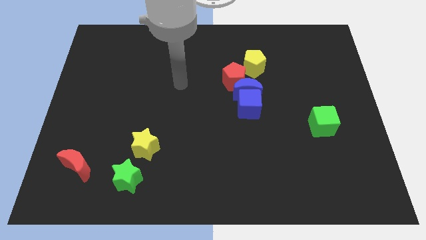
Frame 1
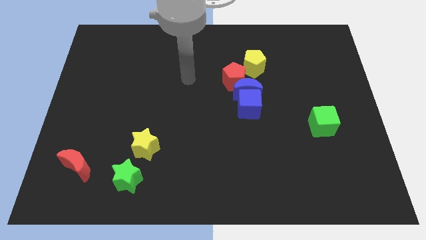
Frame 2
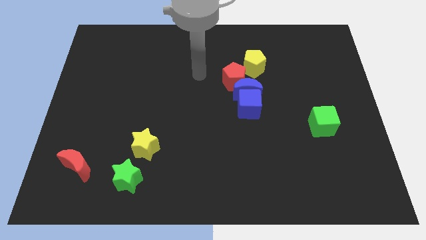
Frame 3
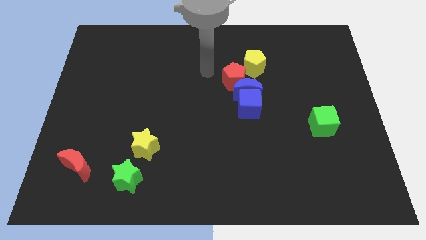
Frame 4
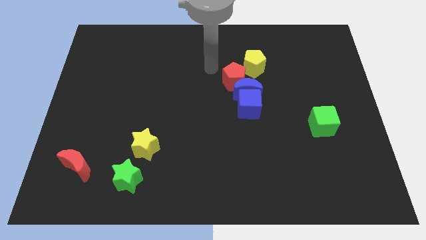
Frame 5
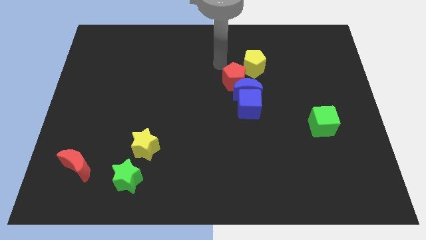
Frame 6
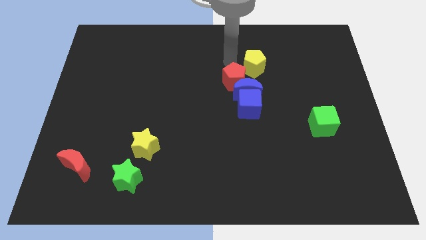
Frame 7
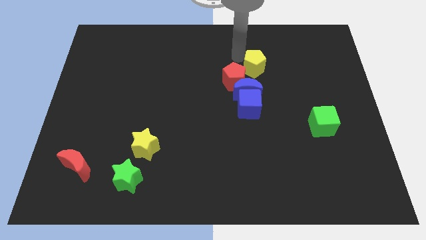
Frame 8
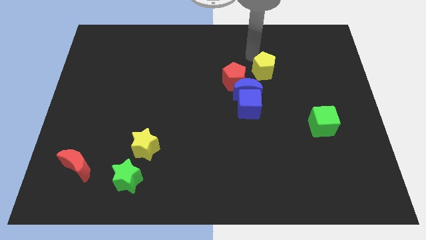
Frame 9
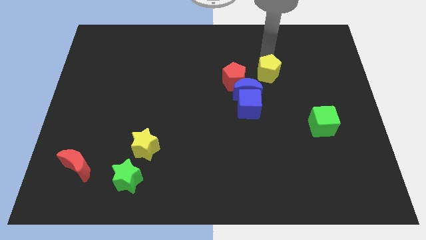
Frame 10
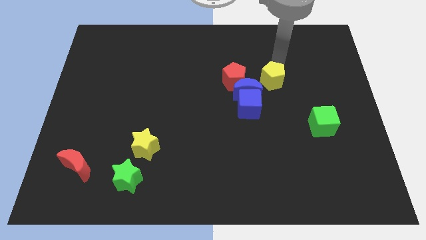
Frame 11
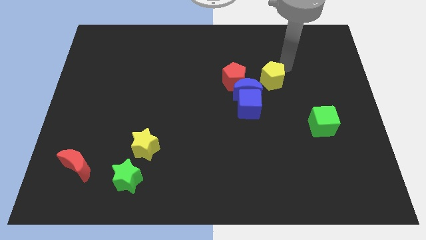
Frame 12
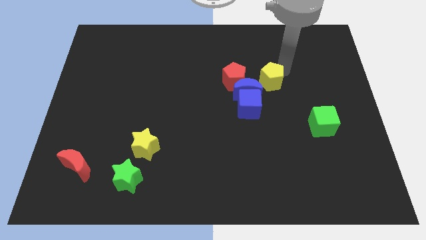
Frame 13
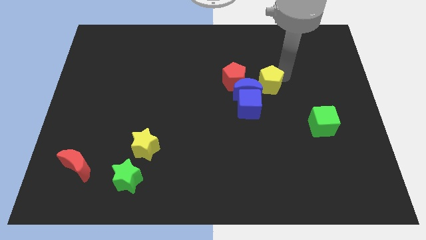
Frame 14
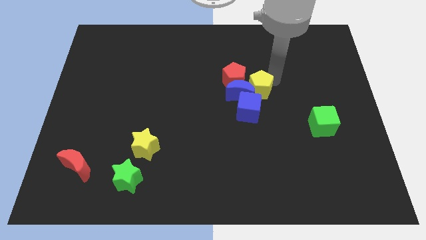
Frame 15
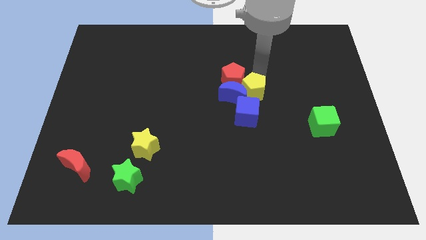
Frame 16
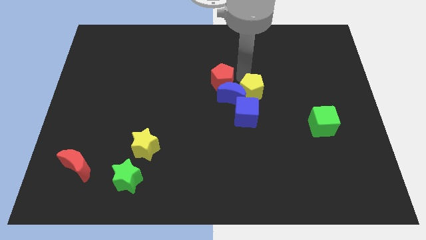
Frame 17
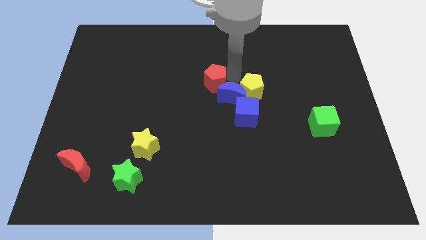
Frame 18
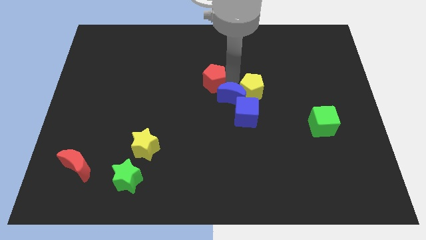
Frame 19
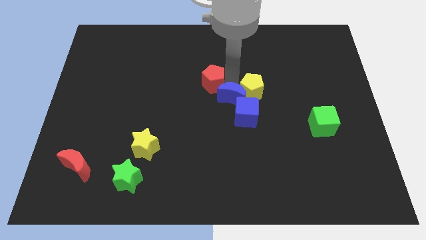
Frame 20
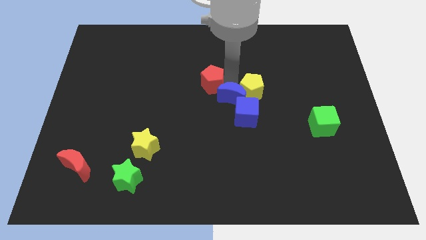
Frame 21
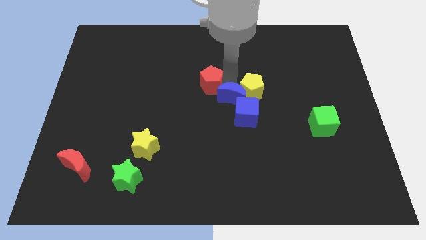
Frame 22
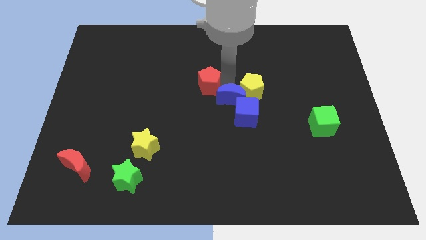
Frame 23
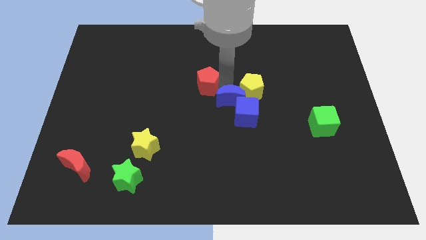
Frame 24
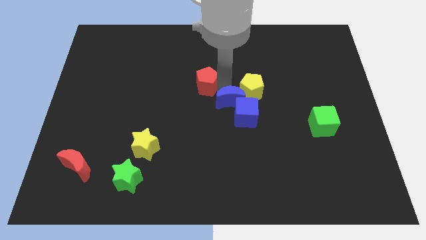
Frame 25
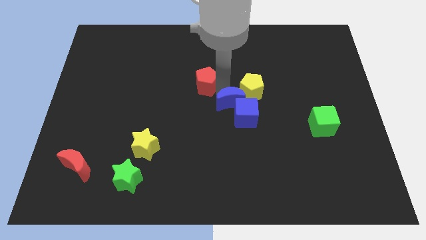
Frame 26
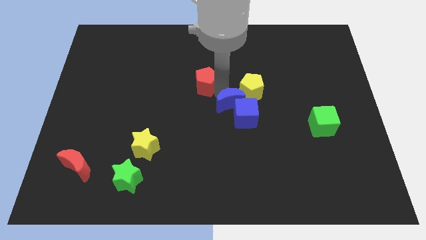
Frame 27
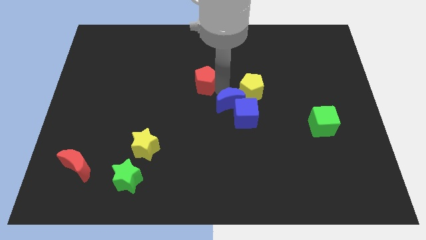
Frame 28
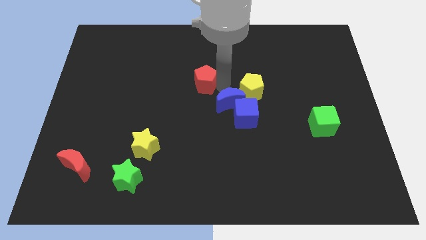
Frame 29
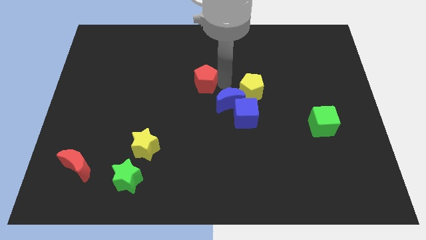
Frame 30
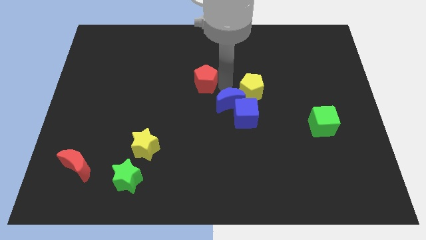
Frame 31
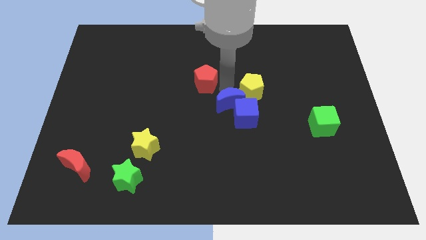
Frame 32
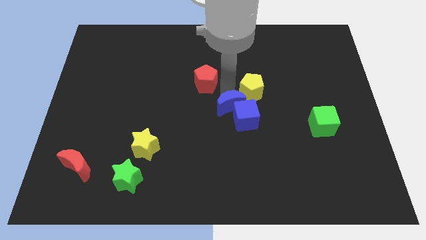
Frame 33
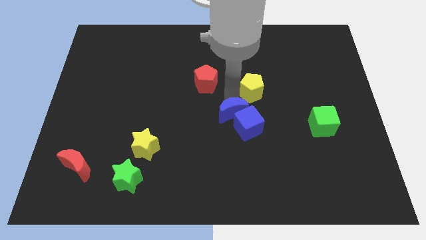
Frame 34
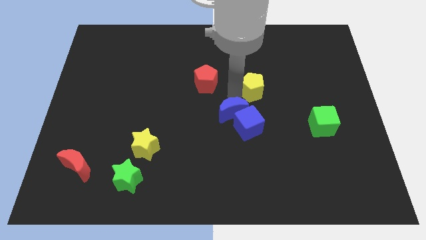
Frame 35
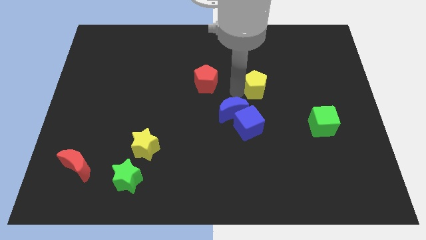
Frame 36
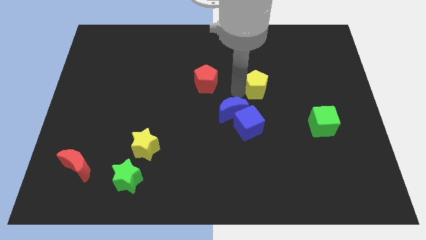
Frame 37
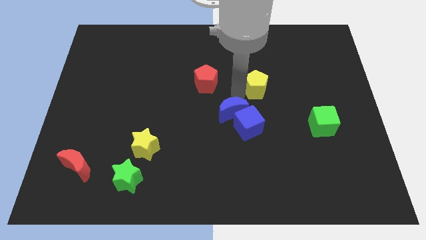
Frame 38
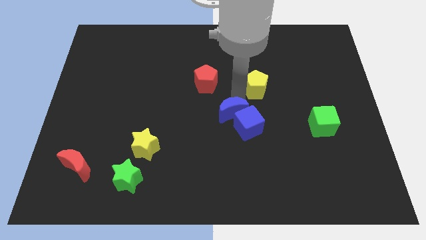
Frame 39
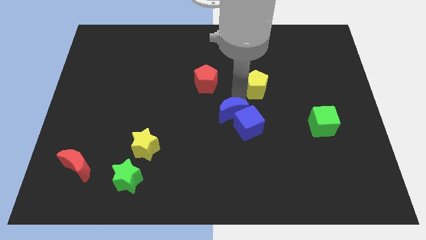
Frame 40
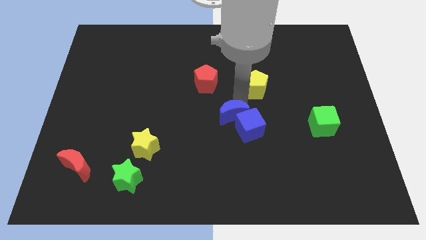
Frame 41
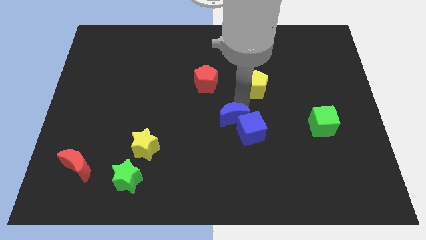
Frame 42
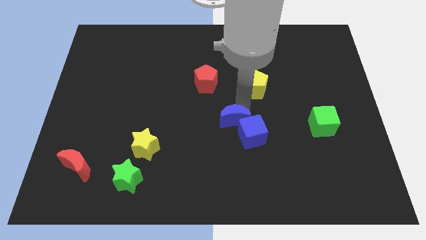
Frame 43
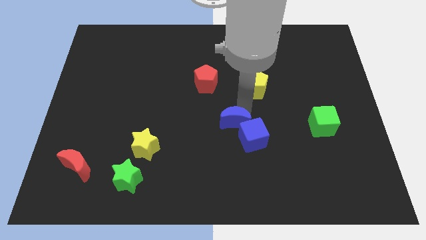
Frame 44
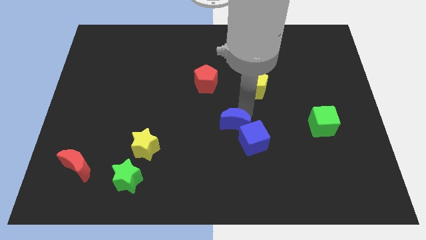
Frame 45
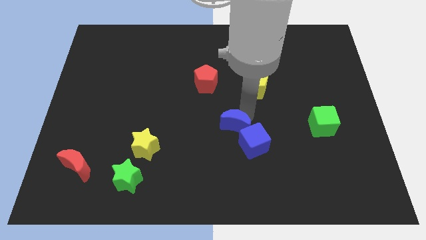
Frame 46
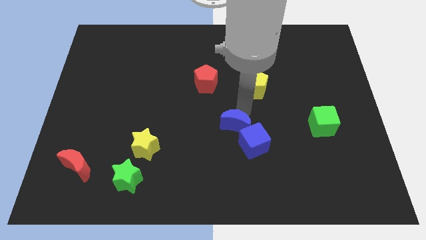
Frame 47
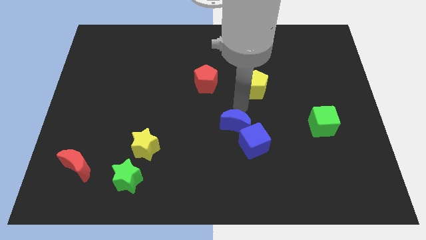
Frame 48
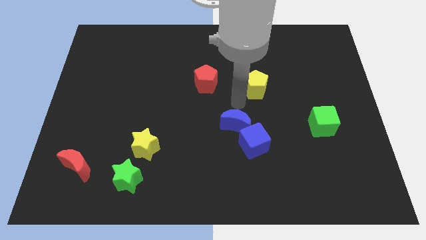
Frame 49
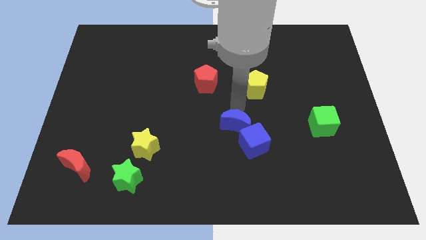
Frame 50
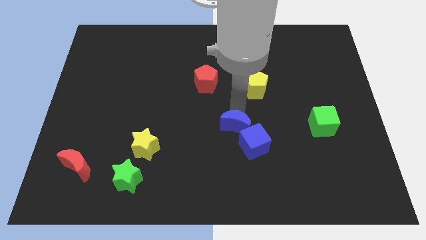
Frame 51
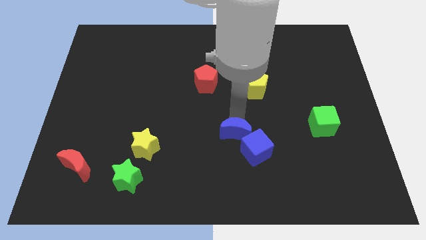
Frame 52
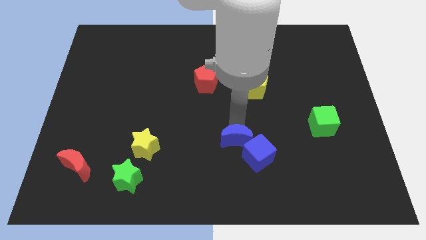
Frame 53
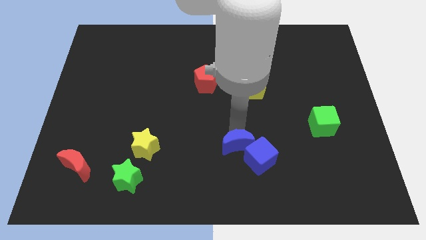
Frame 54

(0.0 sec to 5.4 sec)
pull the blue moon apart from the blue cube, red pentagon, and yellow pentagon

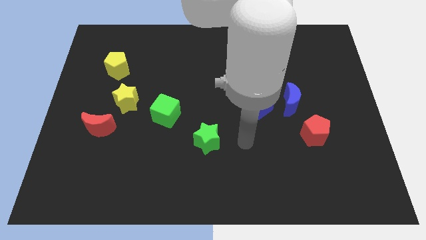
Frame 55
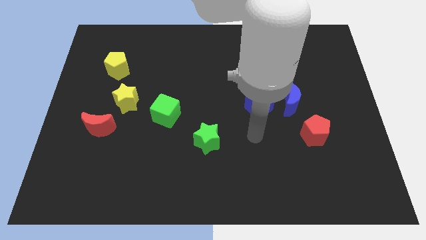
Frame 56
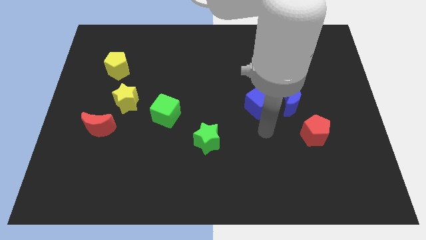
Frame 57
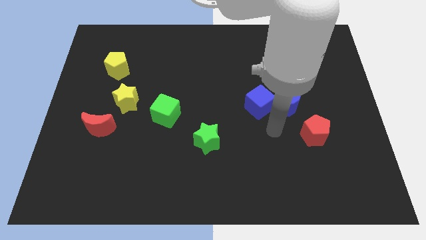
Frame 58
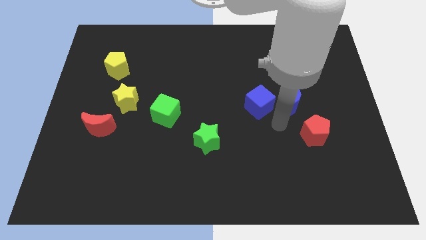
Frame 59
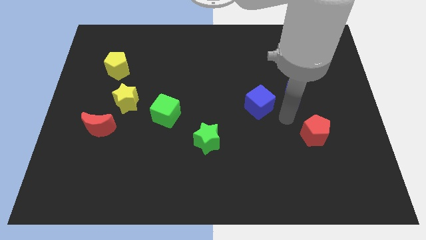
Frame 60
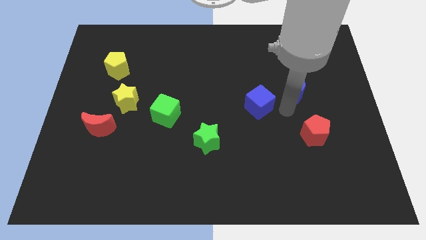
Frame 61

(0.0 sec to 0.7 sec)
pull the blue cube apart from the blue moon

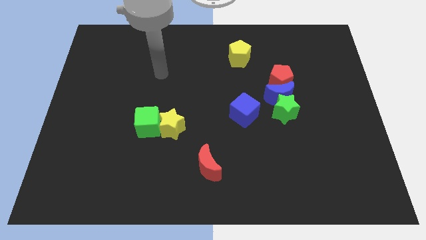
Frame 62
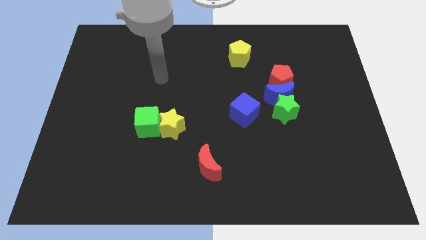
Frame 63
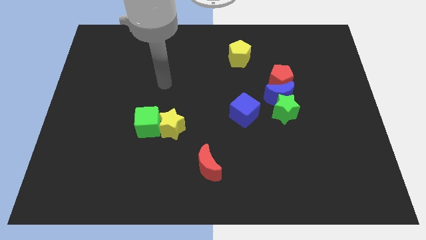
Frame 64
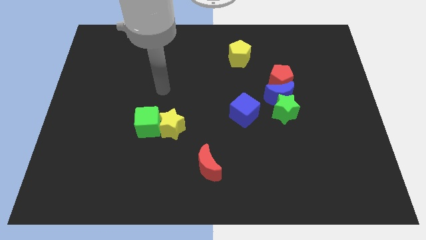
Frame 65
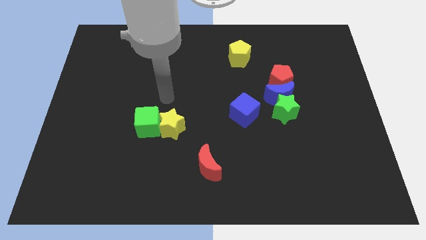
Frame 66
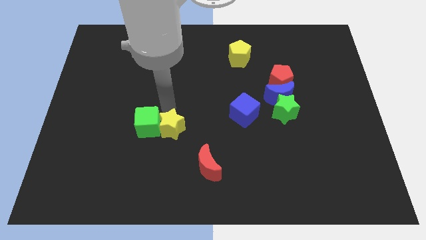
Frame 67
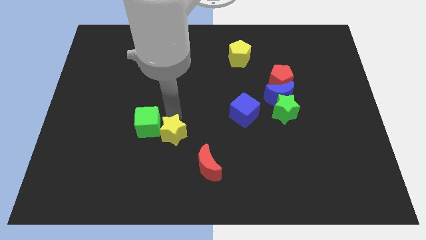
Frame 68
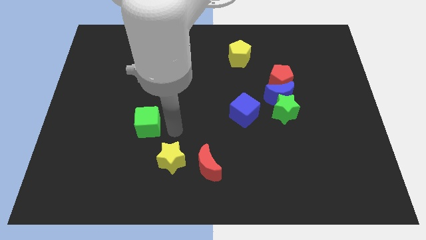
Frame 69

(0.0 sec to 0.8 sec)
move the green cube away from the yellow star

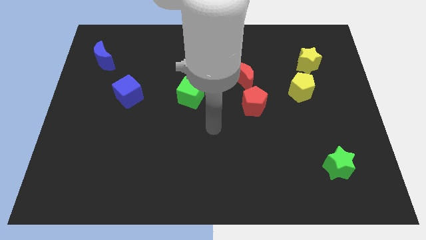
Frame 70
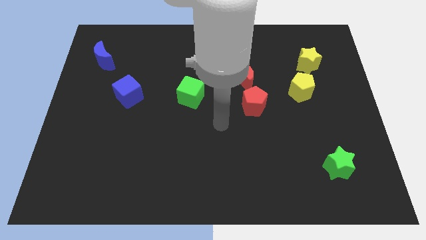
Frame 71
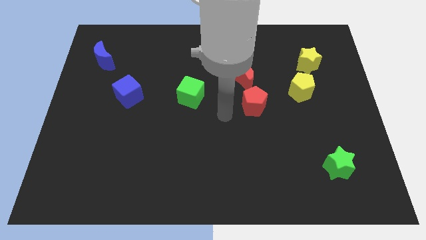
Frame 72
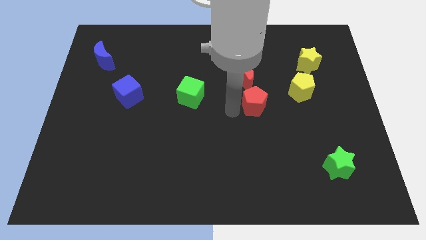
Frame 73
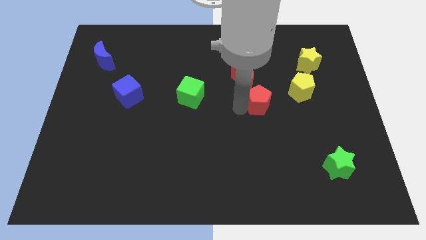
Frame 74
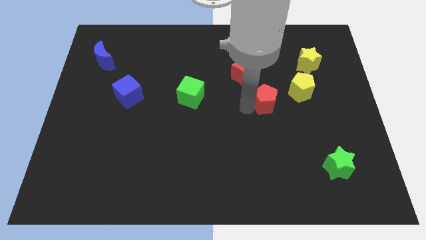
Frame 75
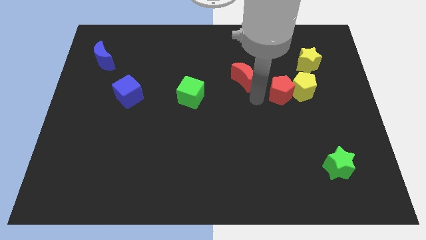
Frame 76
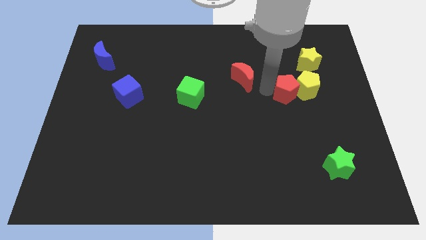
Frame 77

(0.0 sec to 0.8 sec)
separate the red moon from the red pentagon

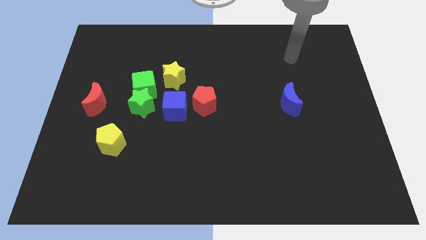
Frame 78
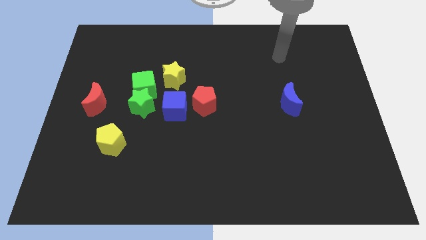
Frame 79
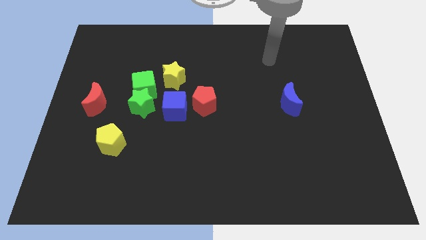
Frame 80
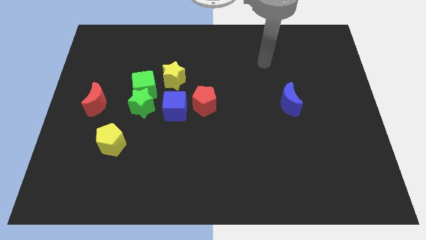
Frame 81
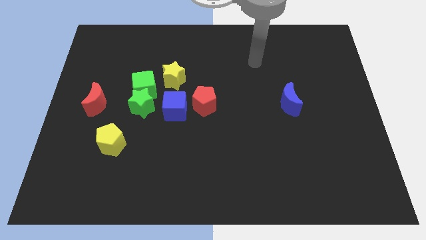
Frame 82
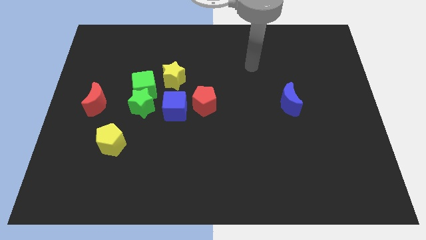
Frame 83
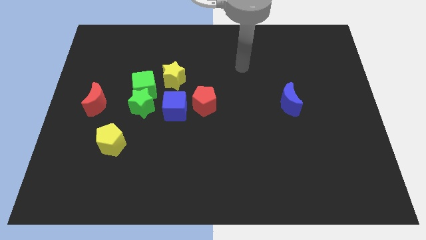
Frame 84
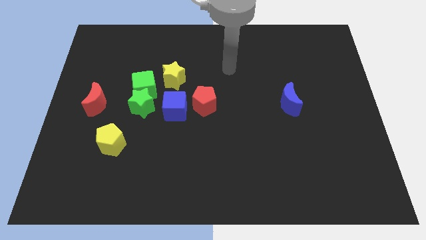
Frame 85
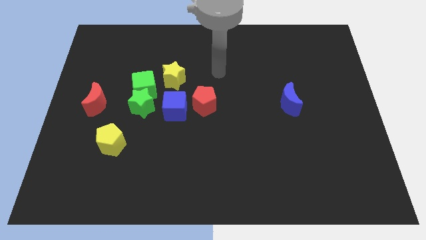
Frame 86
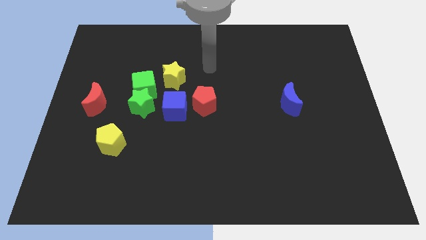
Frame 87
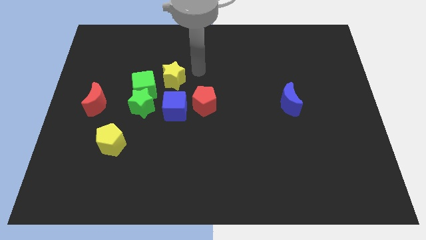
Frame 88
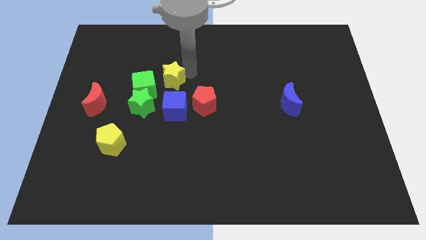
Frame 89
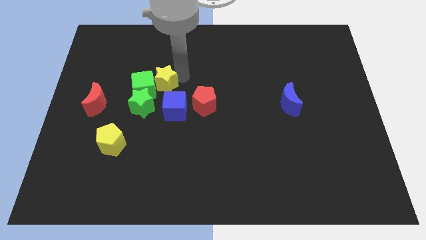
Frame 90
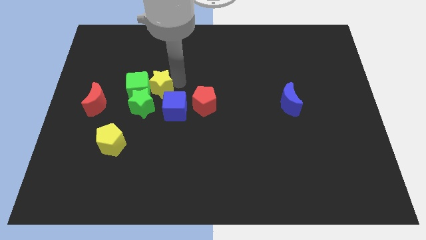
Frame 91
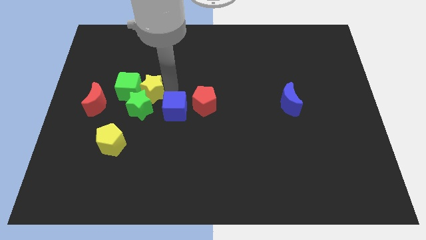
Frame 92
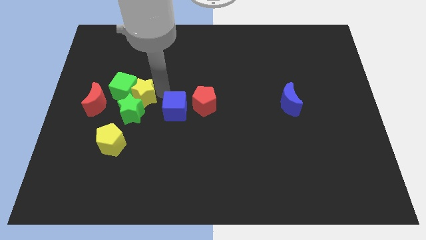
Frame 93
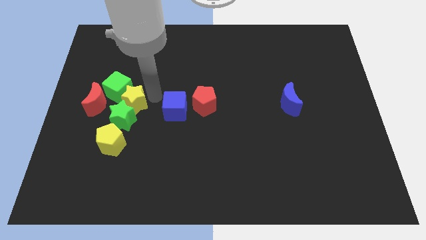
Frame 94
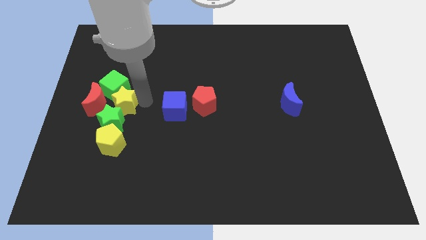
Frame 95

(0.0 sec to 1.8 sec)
move the green star away from the green cube and blue cube
